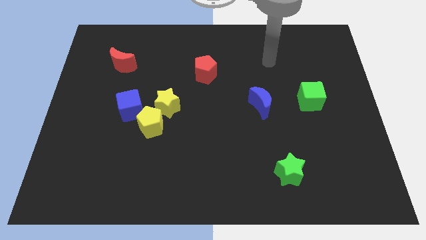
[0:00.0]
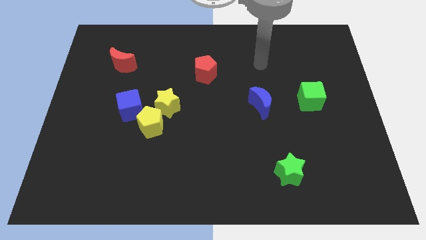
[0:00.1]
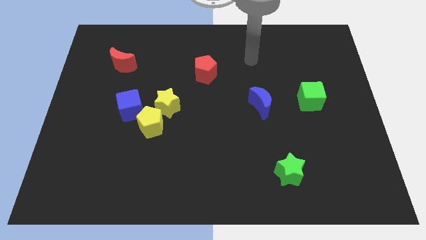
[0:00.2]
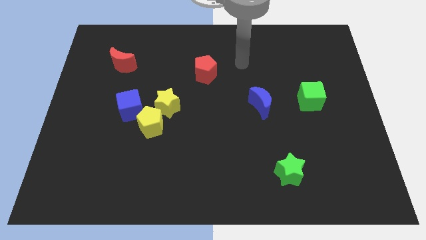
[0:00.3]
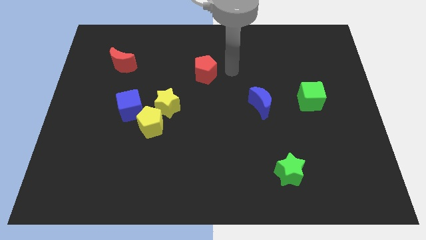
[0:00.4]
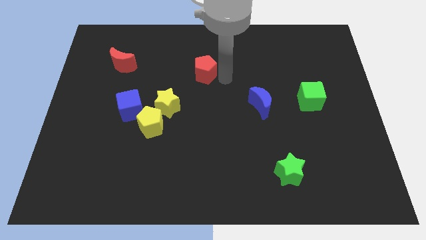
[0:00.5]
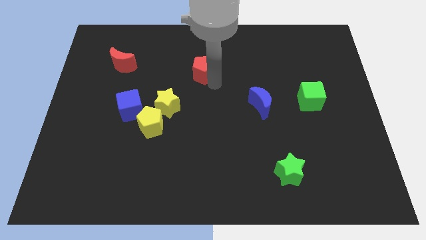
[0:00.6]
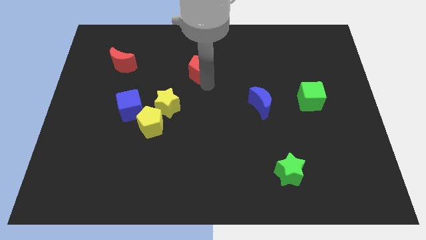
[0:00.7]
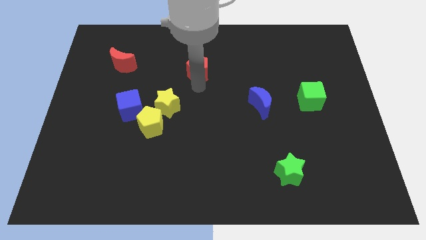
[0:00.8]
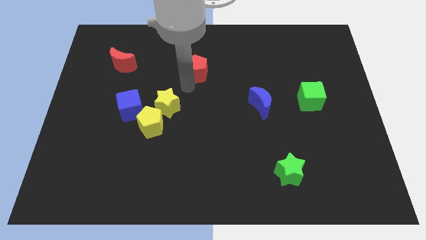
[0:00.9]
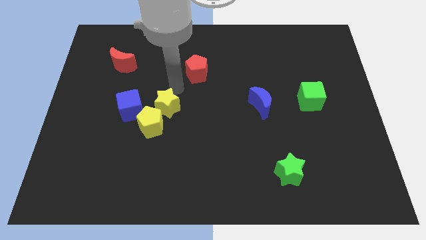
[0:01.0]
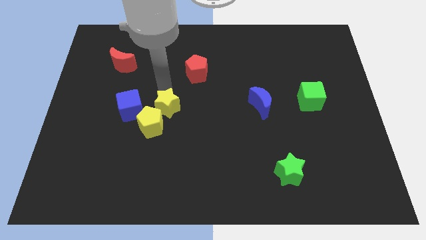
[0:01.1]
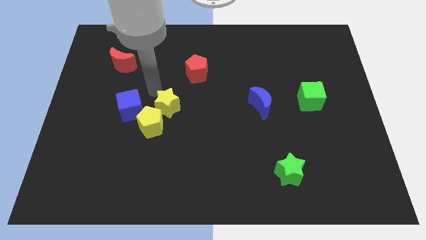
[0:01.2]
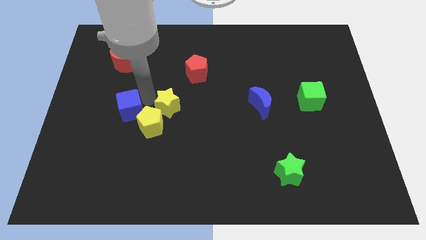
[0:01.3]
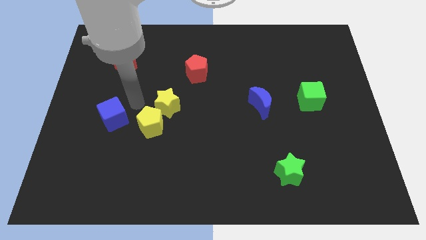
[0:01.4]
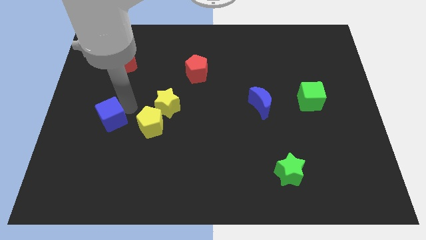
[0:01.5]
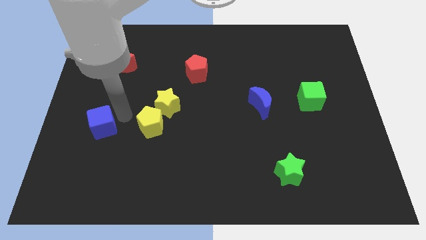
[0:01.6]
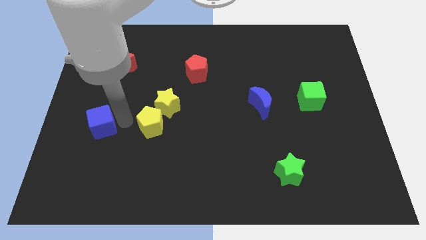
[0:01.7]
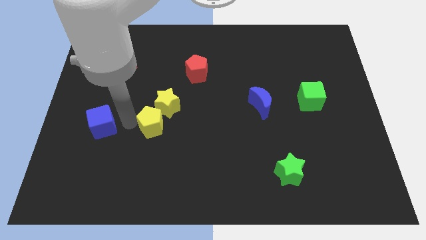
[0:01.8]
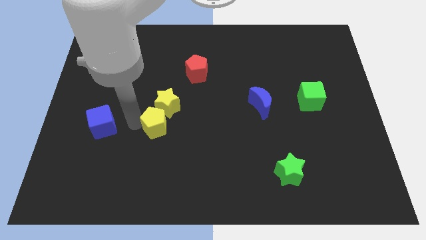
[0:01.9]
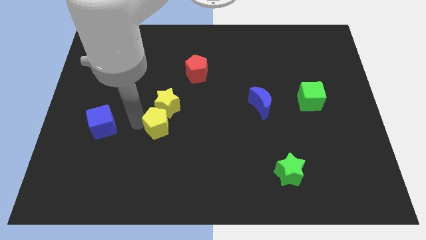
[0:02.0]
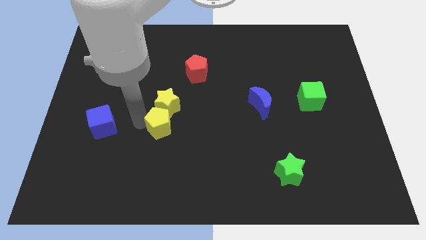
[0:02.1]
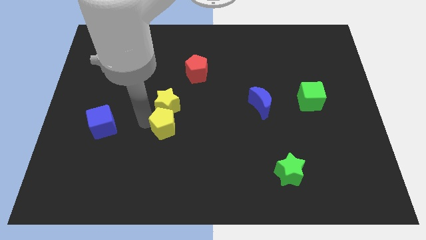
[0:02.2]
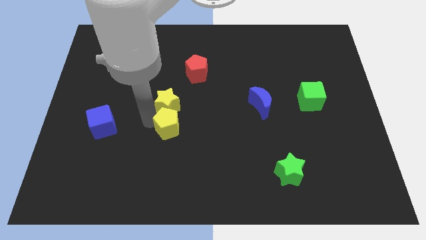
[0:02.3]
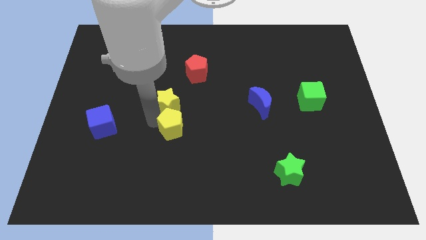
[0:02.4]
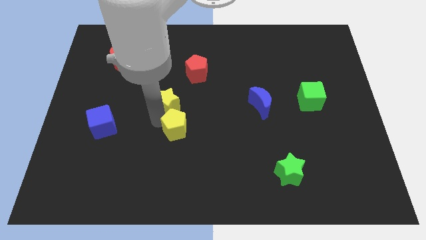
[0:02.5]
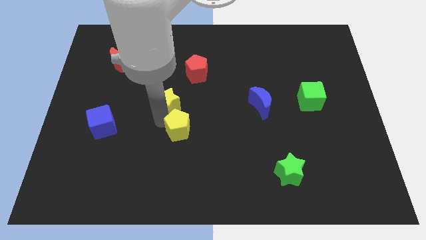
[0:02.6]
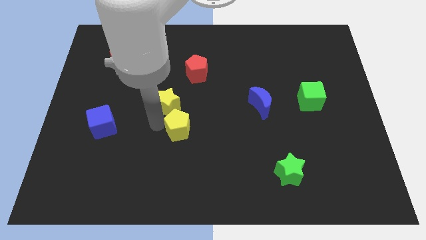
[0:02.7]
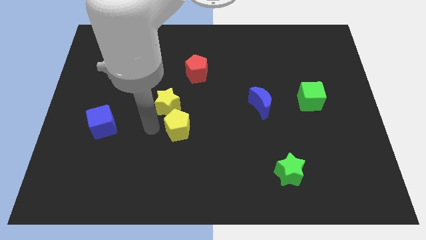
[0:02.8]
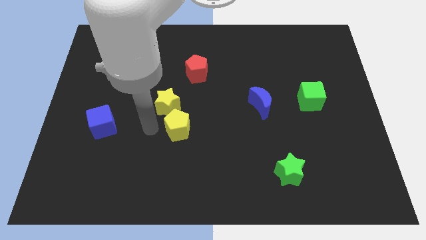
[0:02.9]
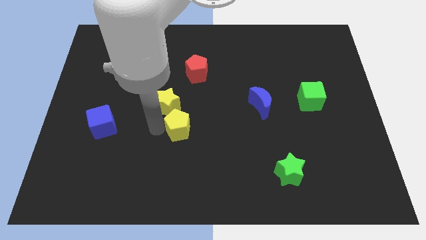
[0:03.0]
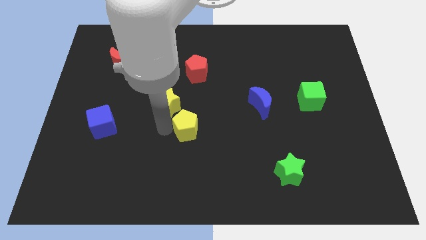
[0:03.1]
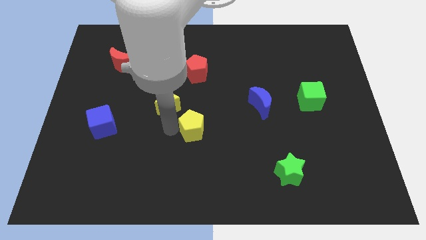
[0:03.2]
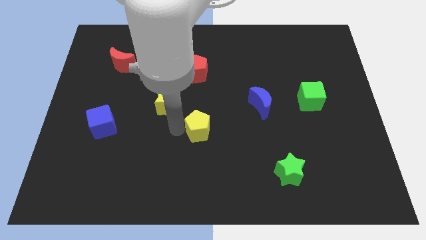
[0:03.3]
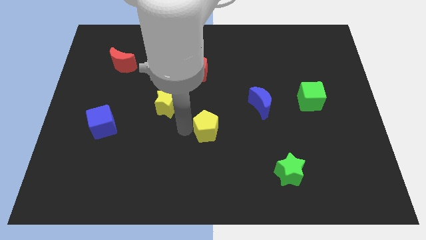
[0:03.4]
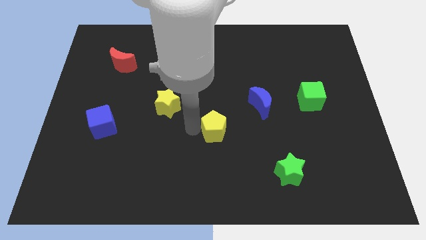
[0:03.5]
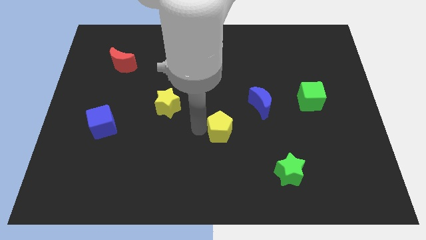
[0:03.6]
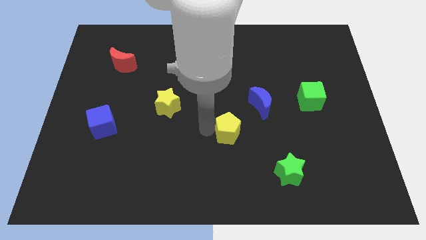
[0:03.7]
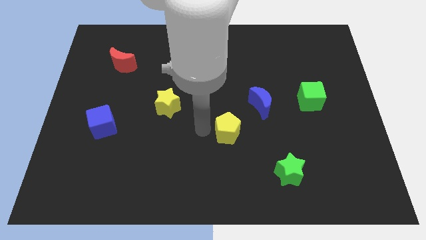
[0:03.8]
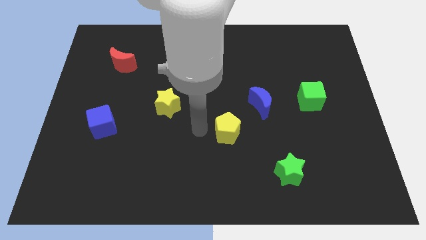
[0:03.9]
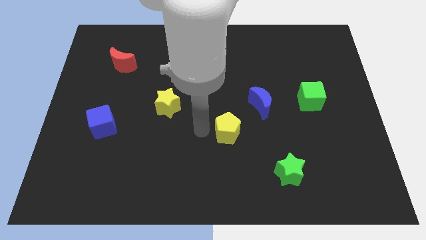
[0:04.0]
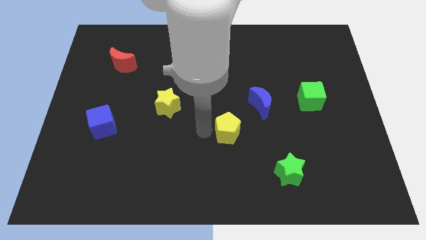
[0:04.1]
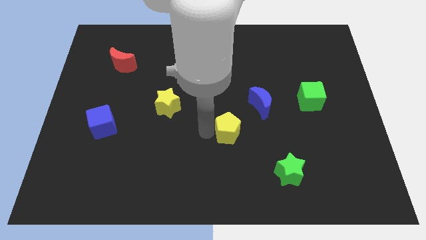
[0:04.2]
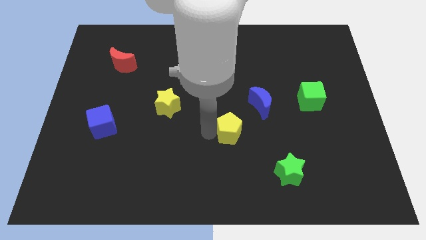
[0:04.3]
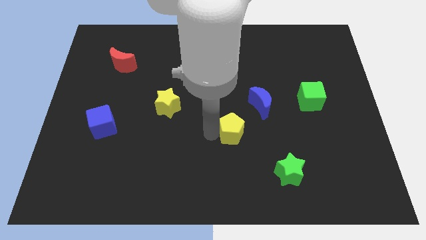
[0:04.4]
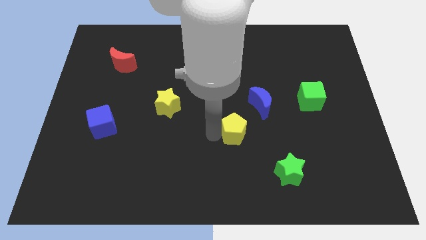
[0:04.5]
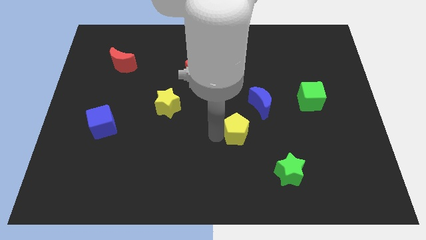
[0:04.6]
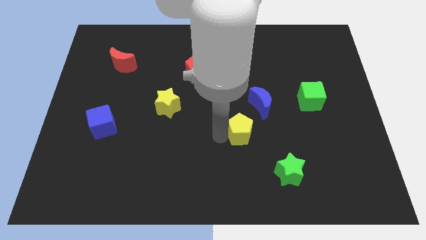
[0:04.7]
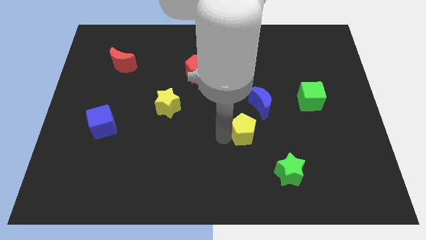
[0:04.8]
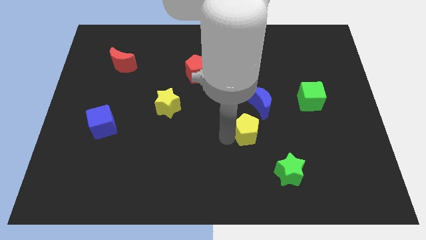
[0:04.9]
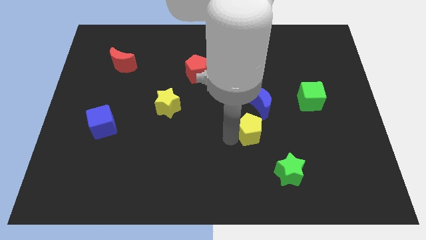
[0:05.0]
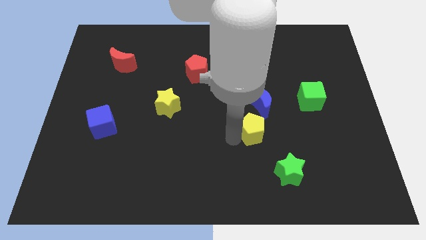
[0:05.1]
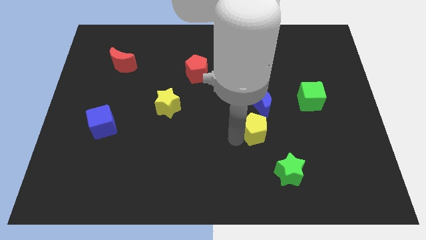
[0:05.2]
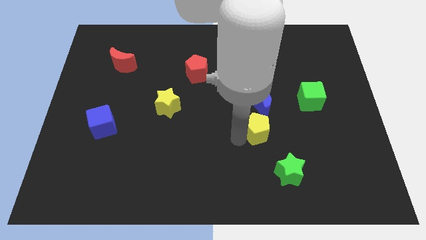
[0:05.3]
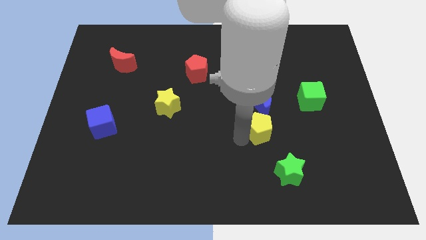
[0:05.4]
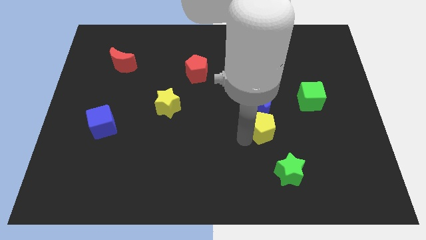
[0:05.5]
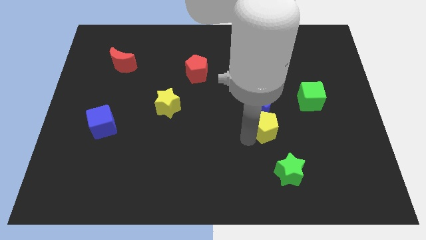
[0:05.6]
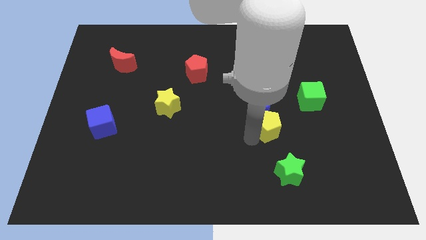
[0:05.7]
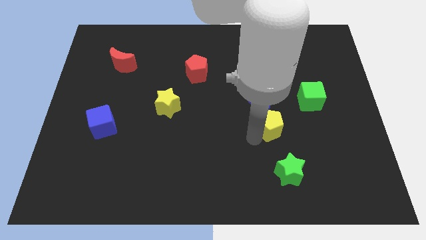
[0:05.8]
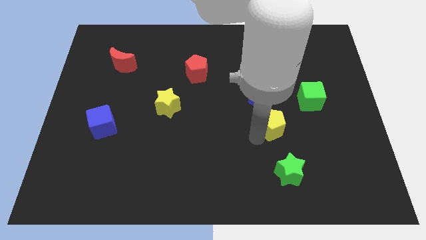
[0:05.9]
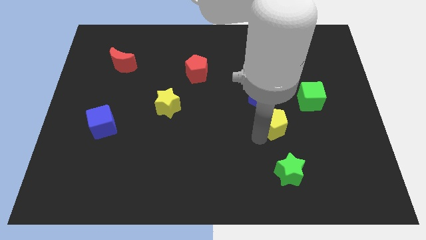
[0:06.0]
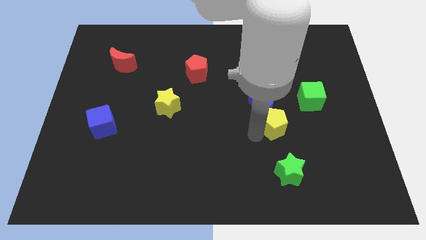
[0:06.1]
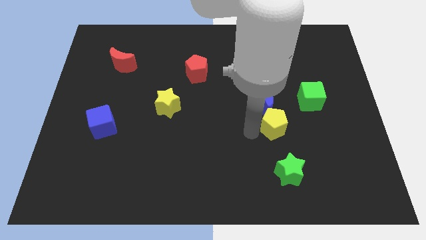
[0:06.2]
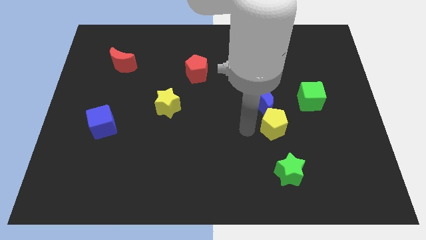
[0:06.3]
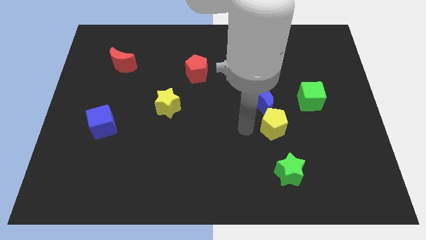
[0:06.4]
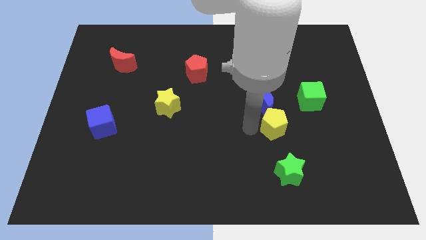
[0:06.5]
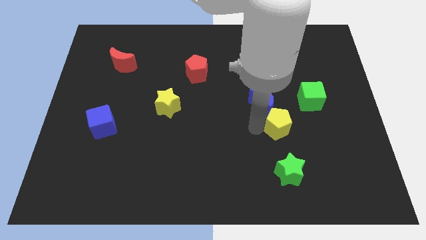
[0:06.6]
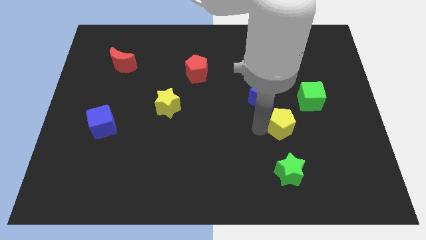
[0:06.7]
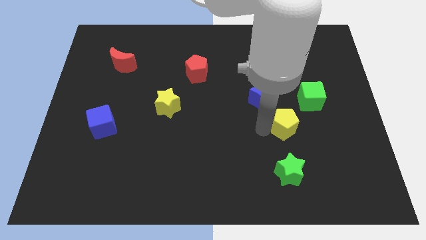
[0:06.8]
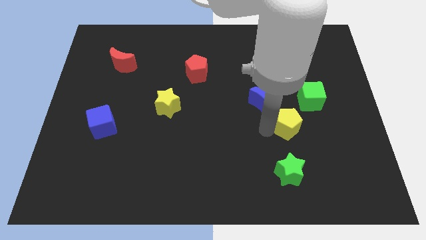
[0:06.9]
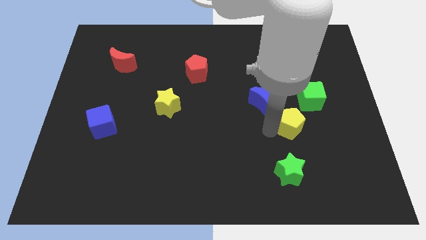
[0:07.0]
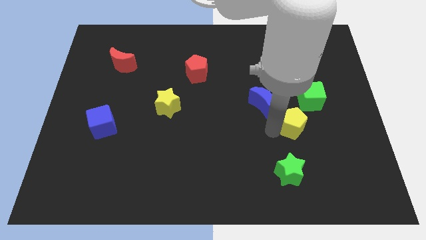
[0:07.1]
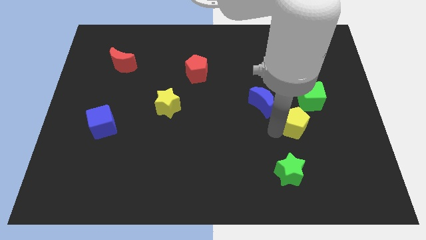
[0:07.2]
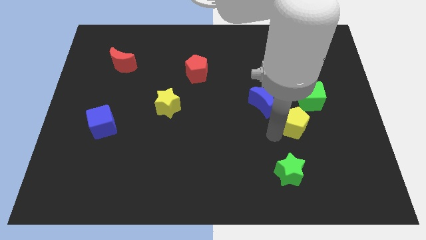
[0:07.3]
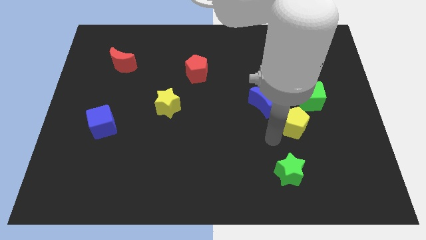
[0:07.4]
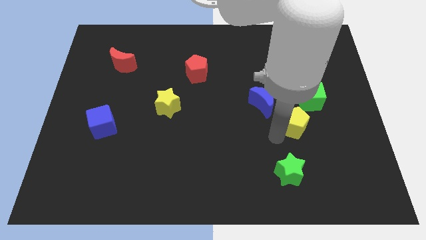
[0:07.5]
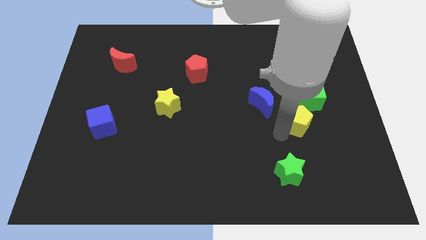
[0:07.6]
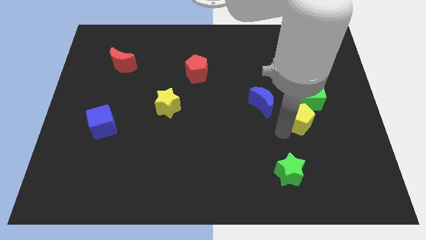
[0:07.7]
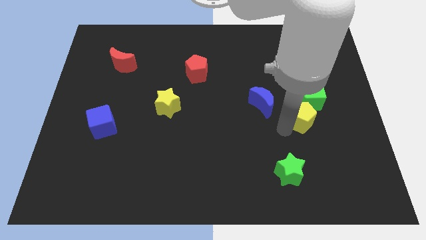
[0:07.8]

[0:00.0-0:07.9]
slide the yellow pentagon just right of the blue moon
